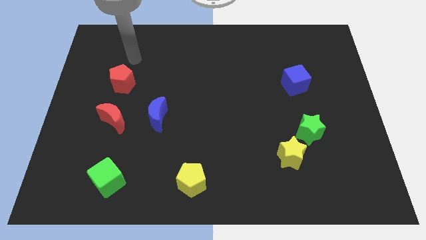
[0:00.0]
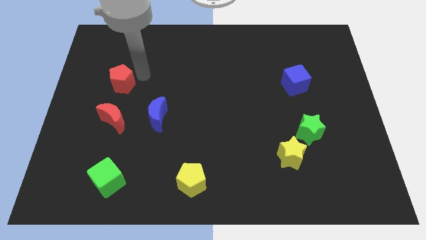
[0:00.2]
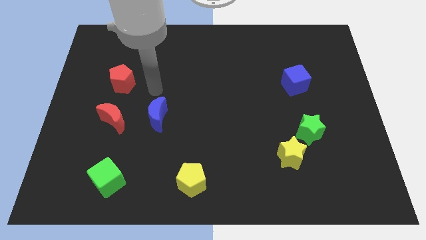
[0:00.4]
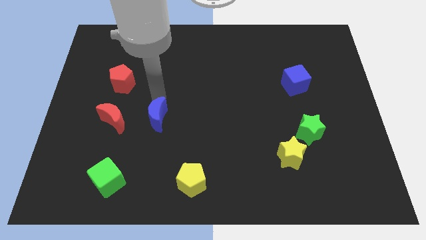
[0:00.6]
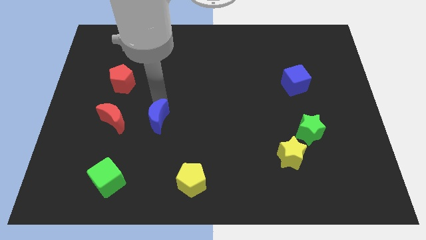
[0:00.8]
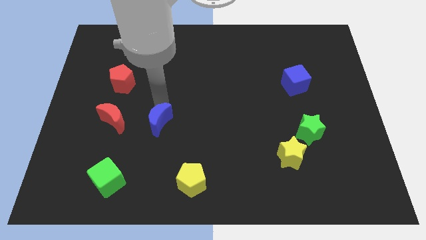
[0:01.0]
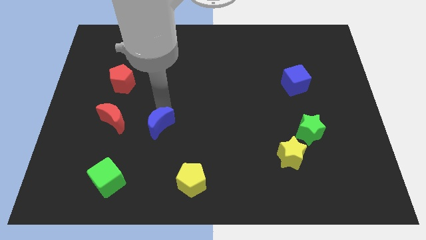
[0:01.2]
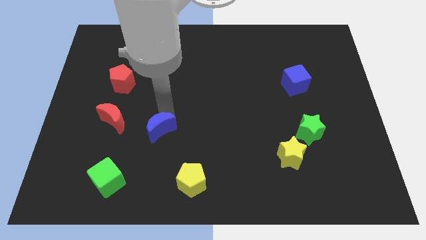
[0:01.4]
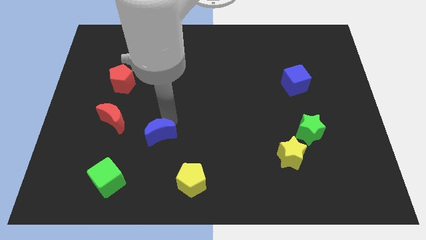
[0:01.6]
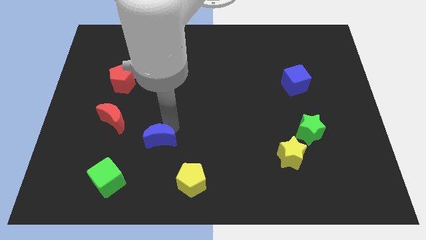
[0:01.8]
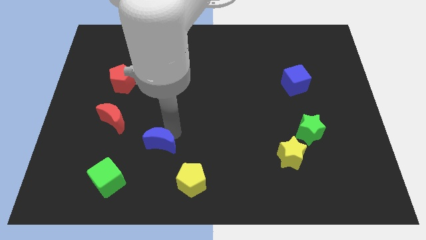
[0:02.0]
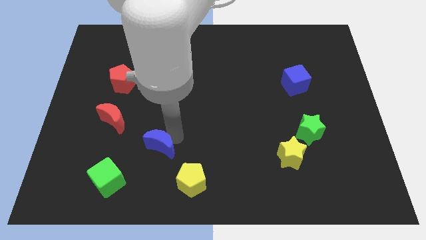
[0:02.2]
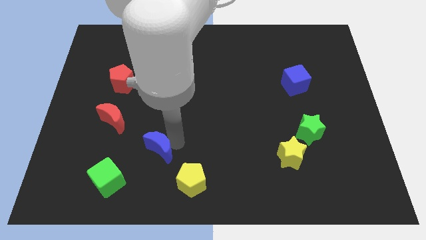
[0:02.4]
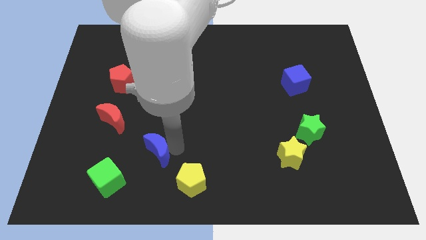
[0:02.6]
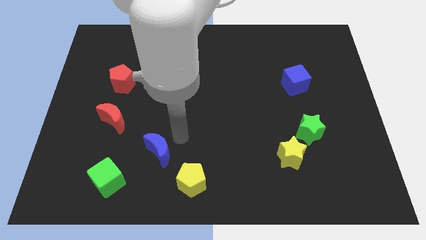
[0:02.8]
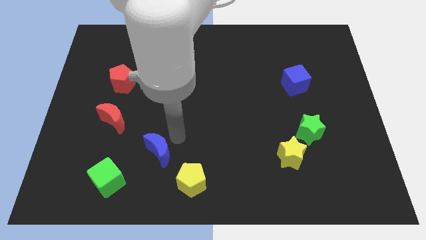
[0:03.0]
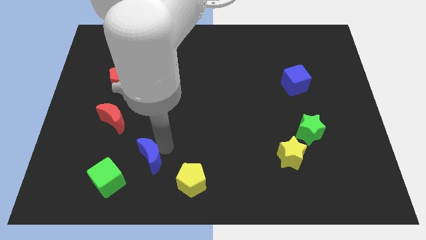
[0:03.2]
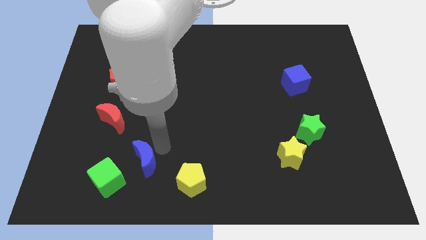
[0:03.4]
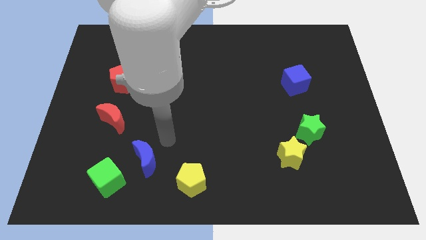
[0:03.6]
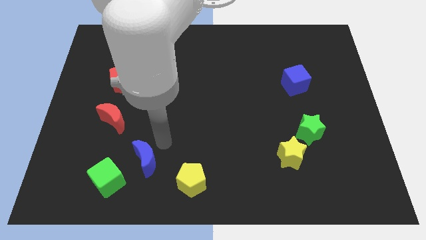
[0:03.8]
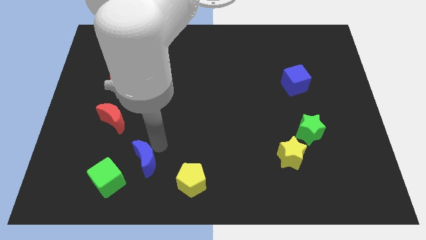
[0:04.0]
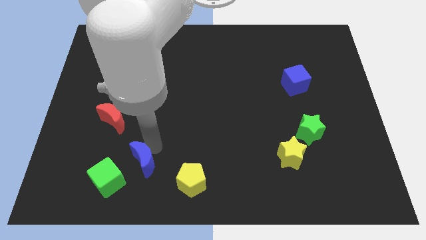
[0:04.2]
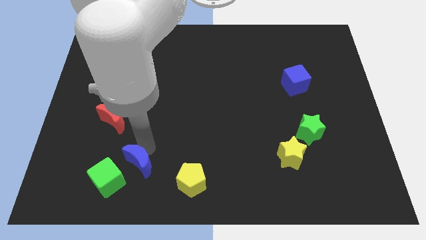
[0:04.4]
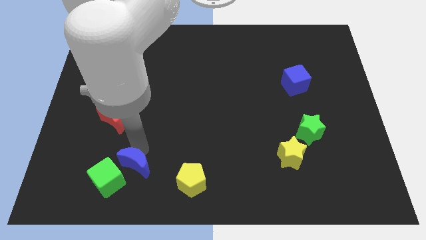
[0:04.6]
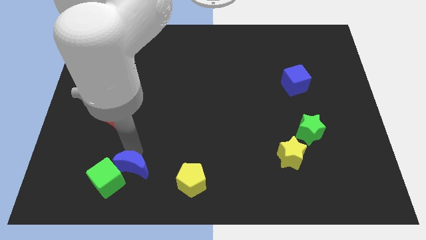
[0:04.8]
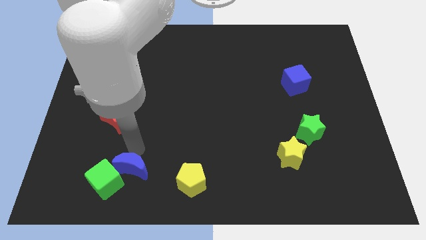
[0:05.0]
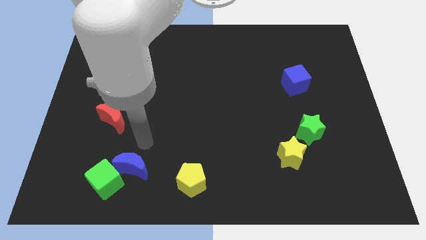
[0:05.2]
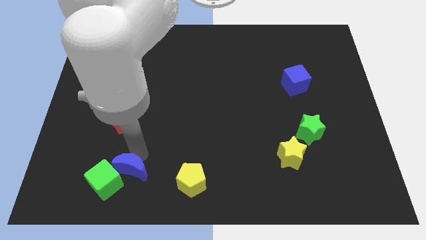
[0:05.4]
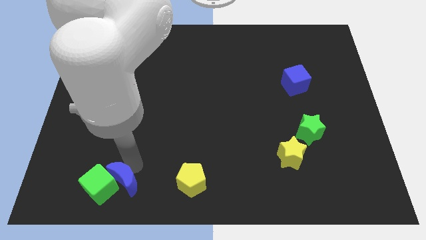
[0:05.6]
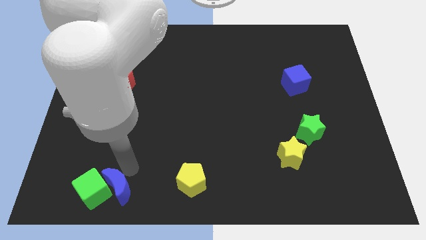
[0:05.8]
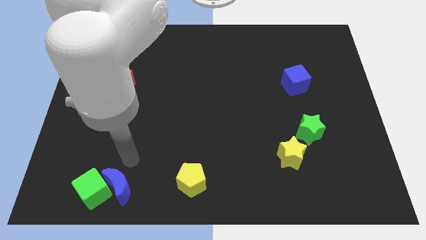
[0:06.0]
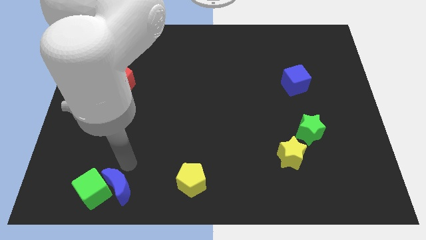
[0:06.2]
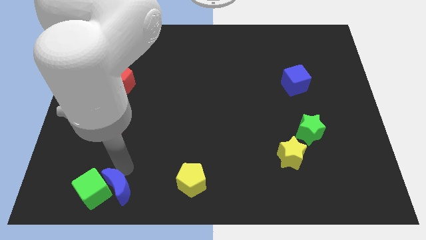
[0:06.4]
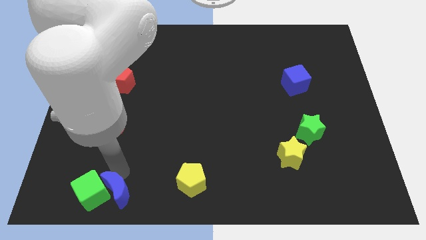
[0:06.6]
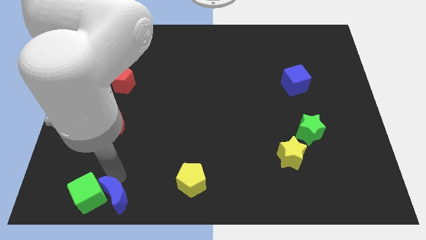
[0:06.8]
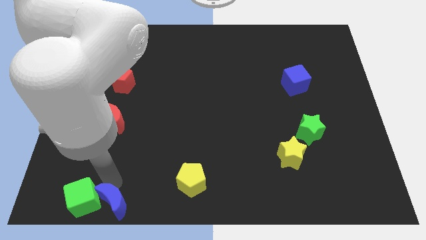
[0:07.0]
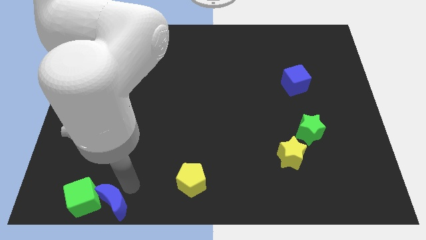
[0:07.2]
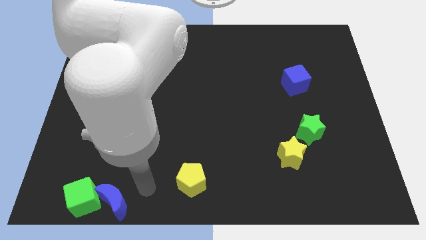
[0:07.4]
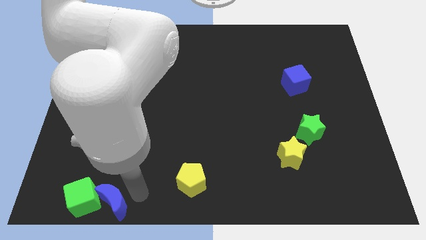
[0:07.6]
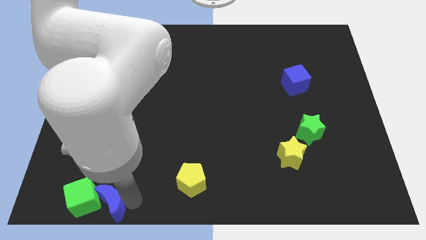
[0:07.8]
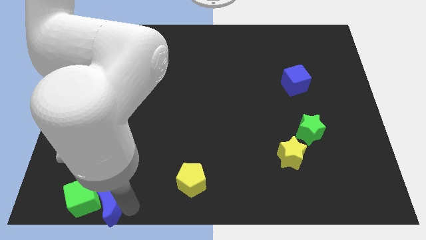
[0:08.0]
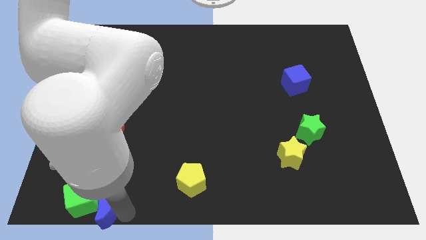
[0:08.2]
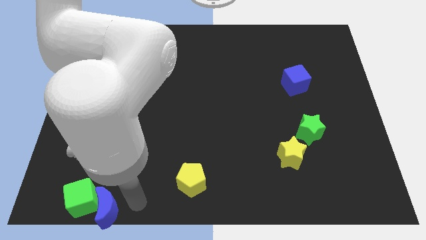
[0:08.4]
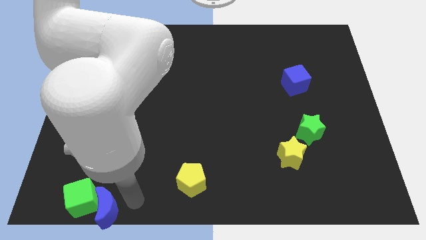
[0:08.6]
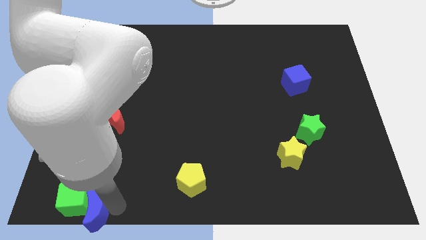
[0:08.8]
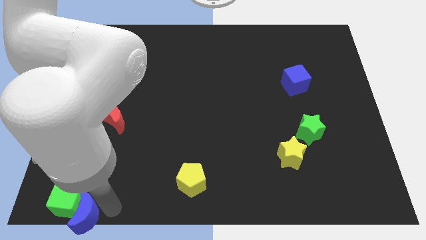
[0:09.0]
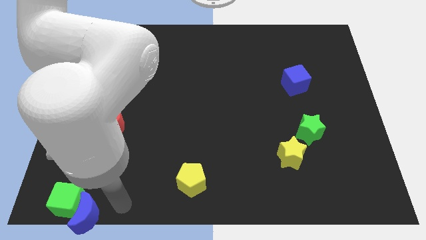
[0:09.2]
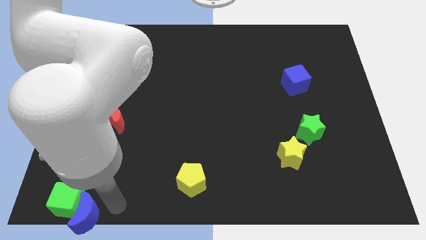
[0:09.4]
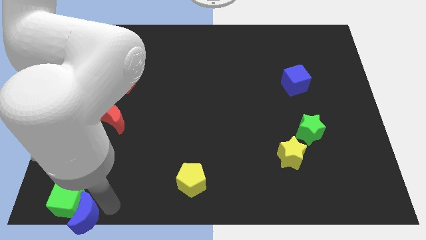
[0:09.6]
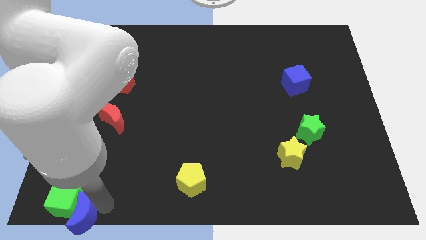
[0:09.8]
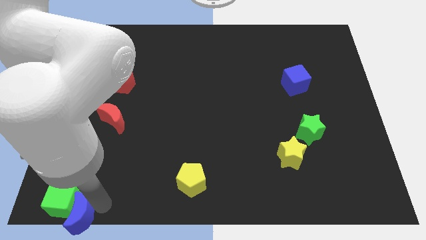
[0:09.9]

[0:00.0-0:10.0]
push the blue moon to the bottom left

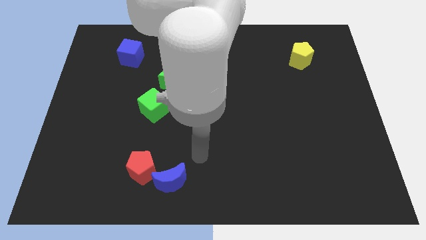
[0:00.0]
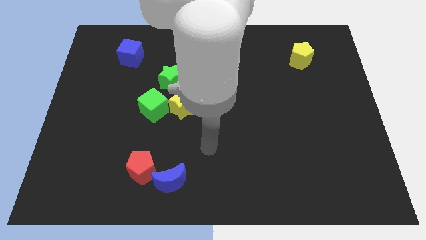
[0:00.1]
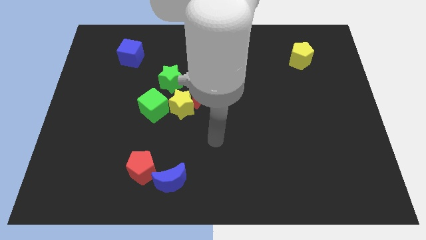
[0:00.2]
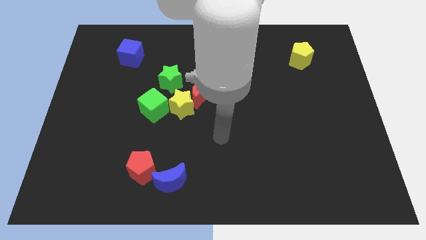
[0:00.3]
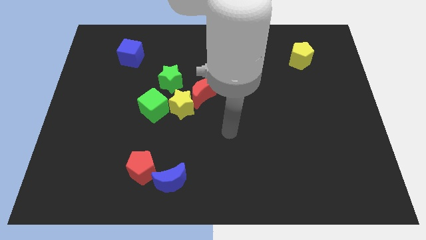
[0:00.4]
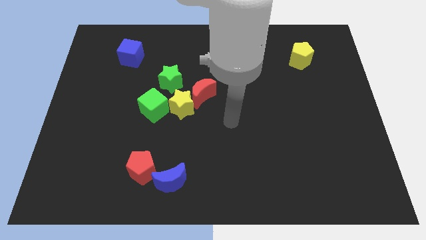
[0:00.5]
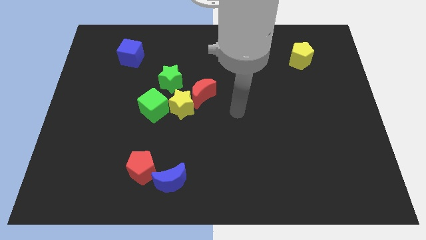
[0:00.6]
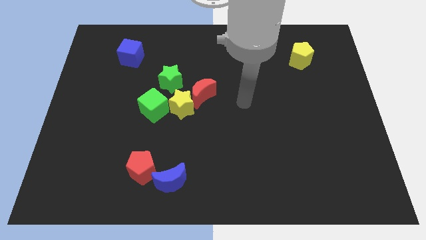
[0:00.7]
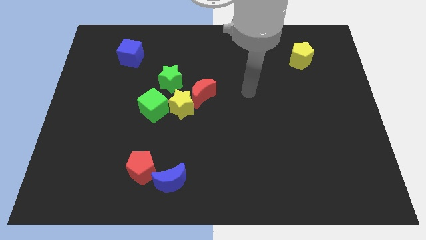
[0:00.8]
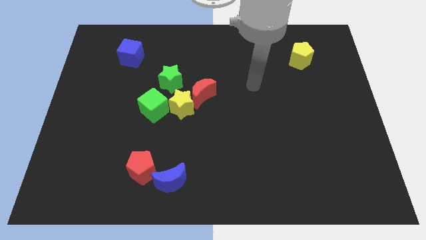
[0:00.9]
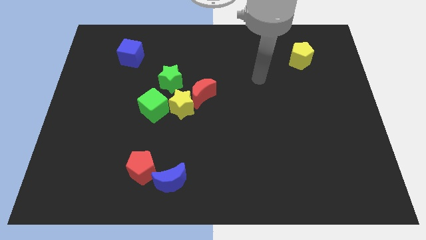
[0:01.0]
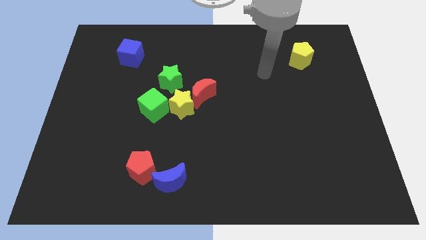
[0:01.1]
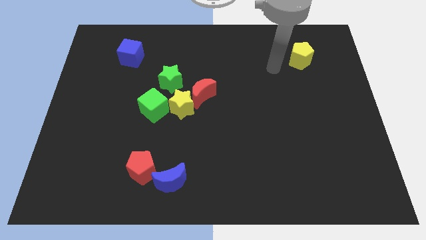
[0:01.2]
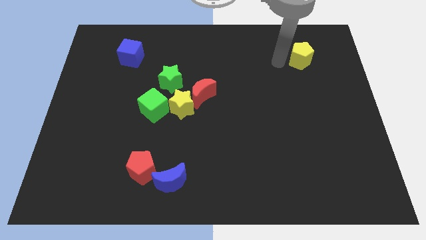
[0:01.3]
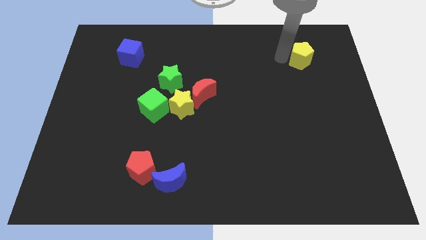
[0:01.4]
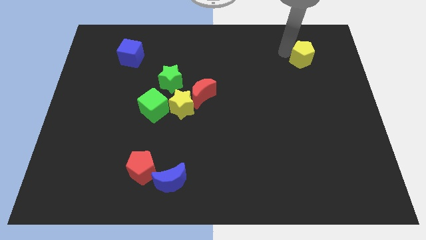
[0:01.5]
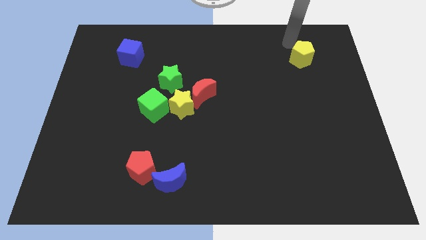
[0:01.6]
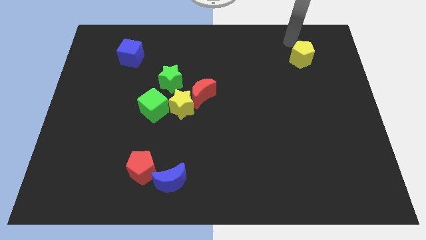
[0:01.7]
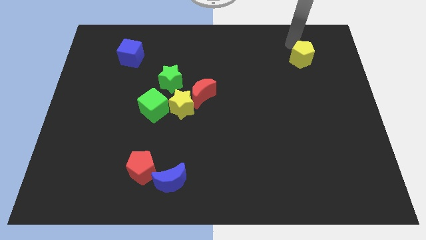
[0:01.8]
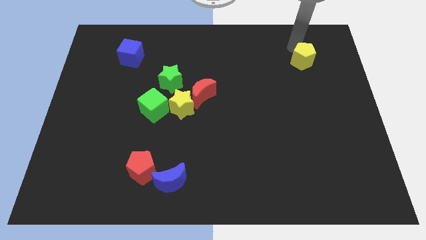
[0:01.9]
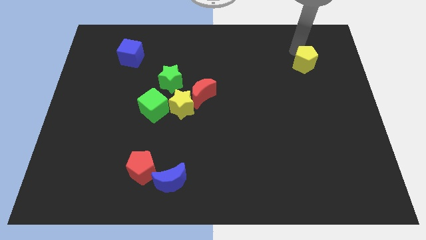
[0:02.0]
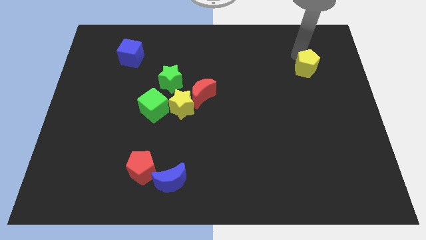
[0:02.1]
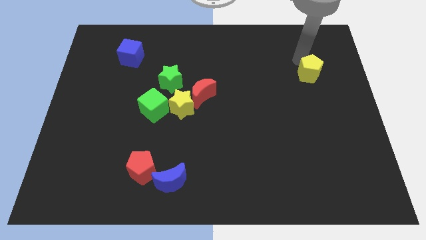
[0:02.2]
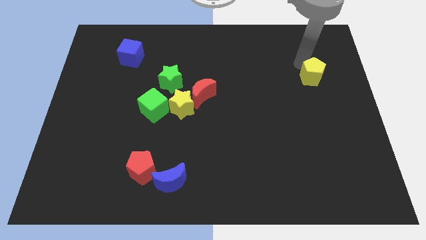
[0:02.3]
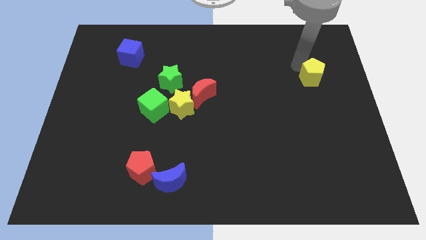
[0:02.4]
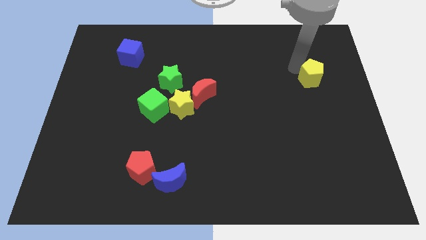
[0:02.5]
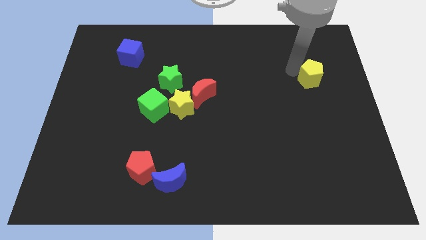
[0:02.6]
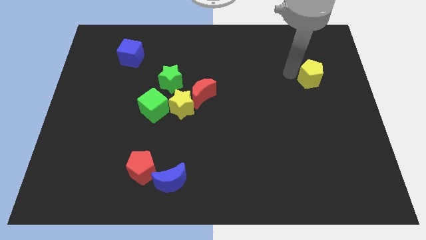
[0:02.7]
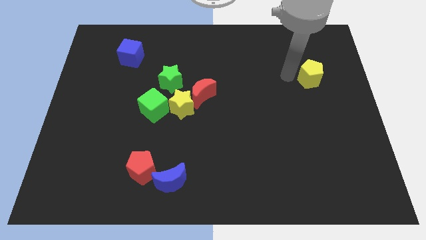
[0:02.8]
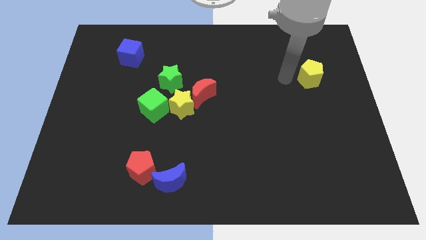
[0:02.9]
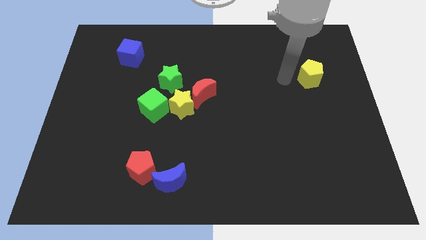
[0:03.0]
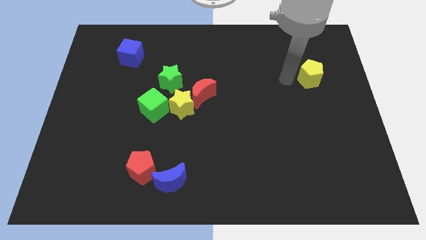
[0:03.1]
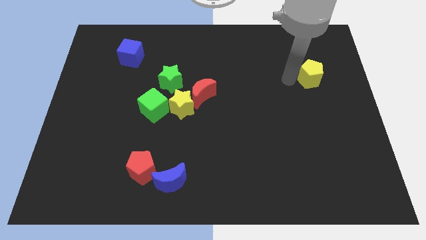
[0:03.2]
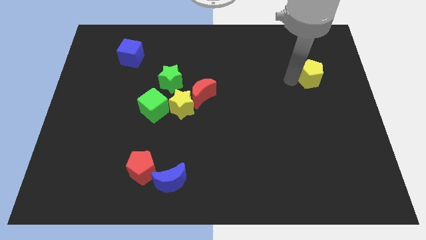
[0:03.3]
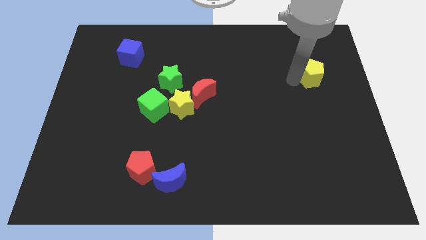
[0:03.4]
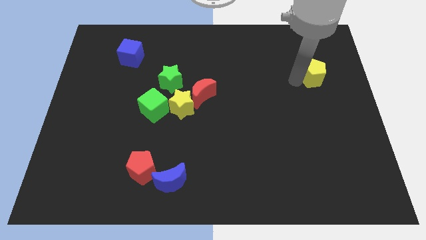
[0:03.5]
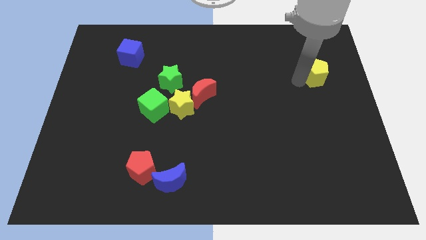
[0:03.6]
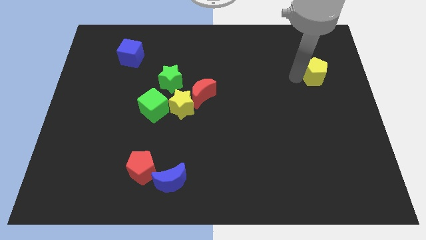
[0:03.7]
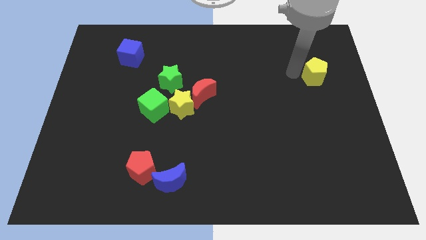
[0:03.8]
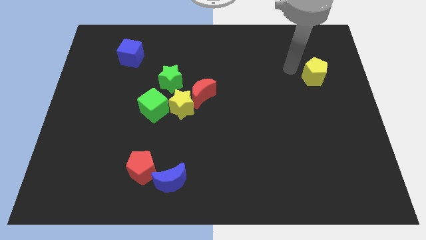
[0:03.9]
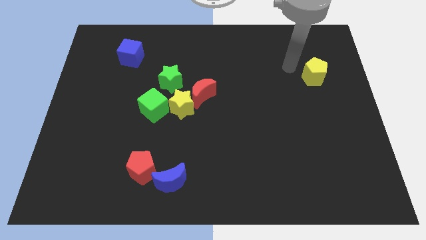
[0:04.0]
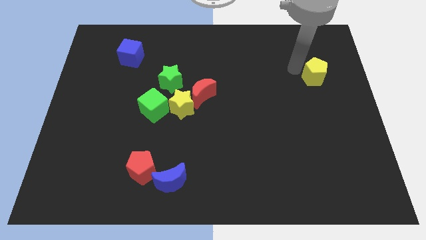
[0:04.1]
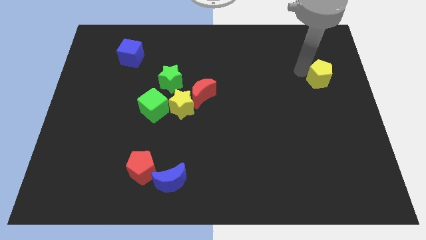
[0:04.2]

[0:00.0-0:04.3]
put the yellow pentagon to the right side of the board
